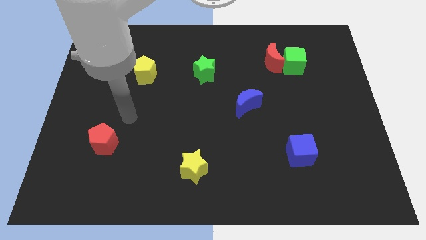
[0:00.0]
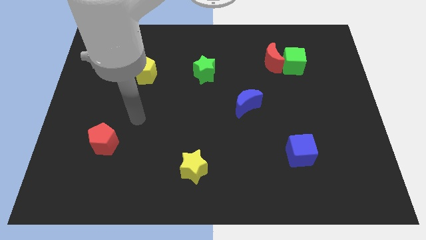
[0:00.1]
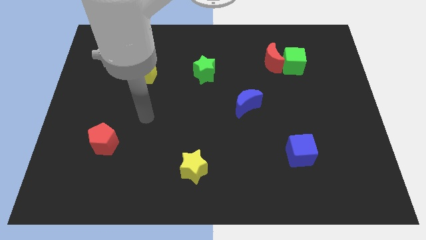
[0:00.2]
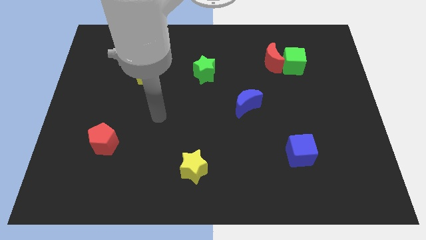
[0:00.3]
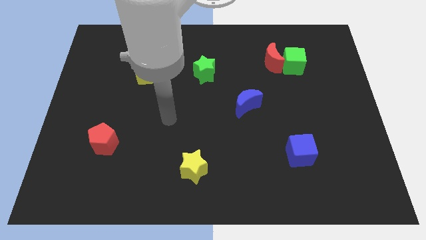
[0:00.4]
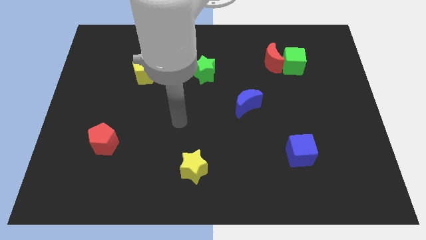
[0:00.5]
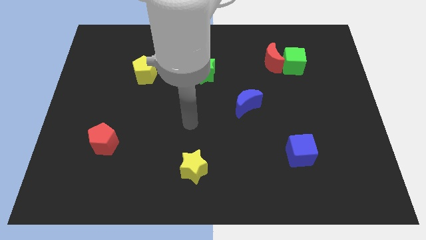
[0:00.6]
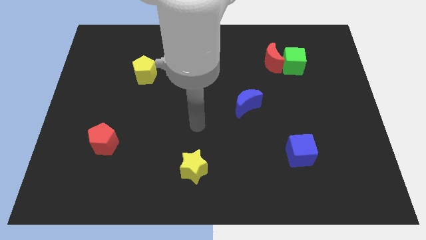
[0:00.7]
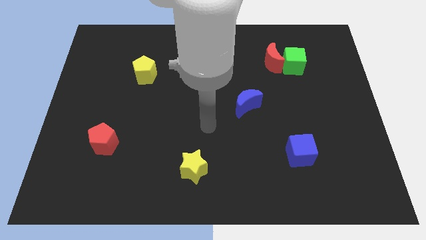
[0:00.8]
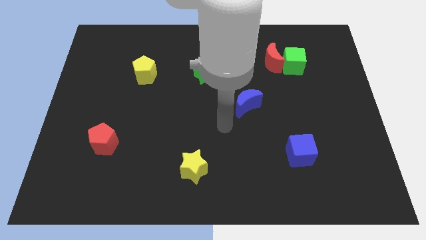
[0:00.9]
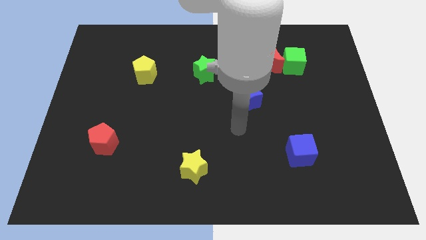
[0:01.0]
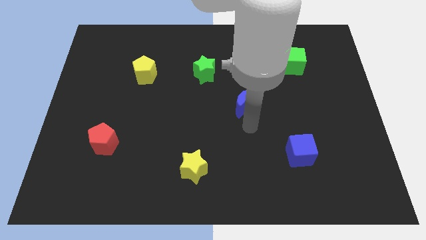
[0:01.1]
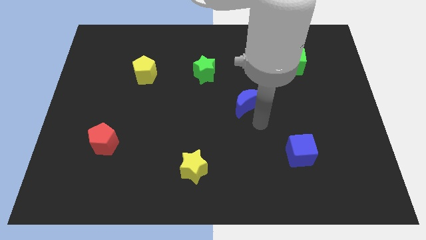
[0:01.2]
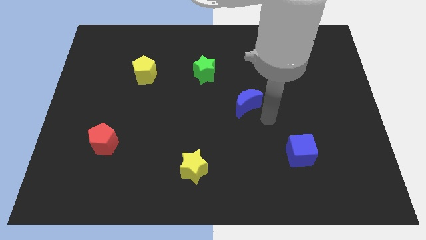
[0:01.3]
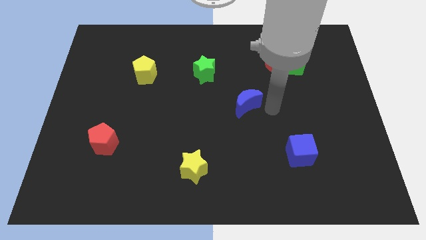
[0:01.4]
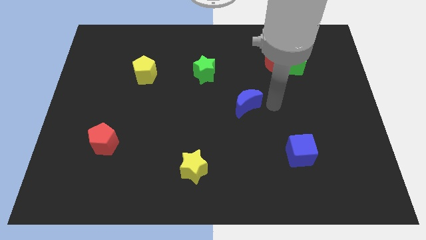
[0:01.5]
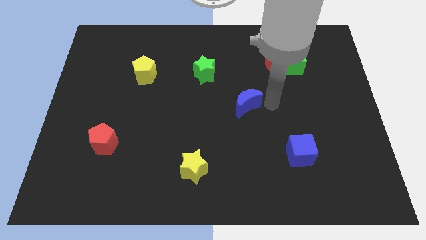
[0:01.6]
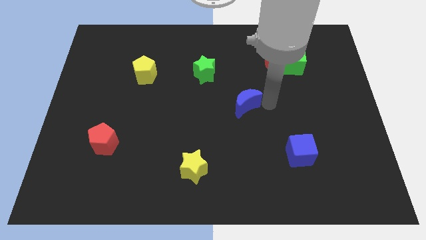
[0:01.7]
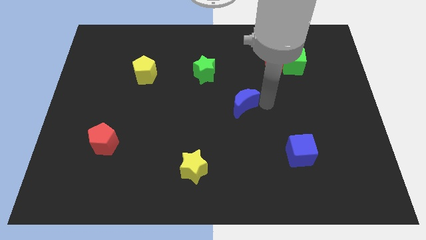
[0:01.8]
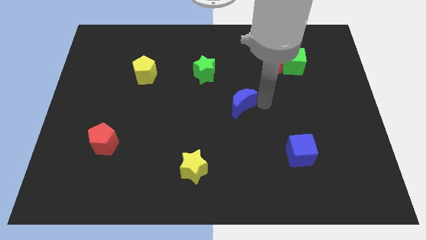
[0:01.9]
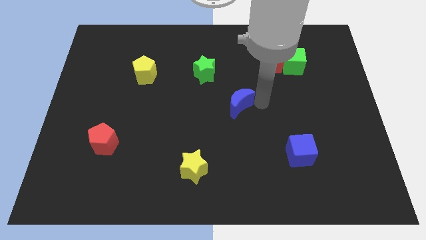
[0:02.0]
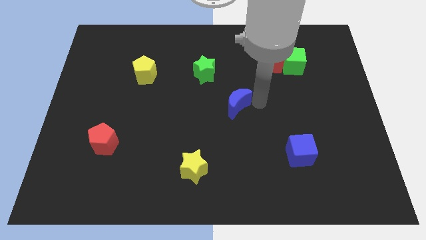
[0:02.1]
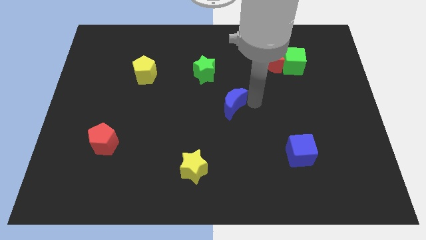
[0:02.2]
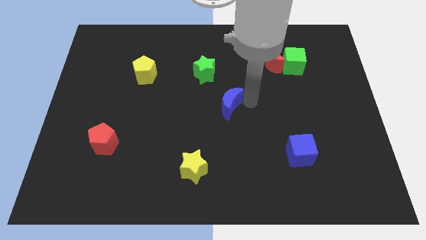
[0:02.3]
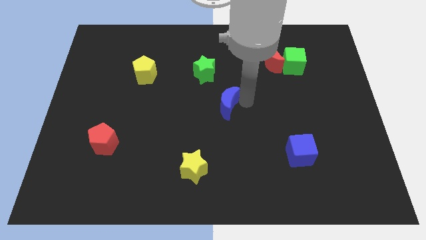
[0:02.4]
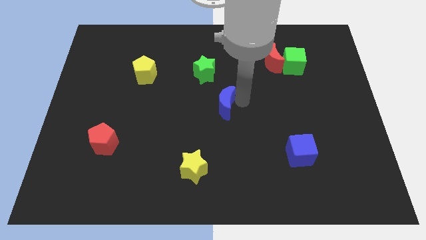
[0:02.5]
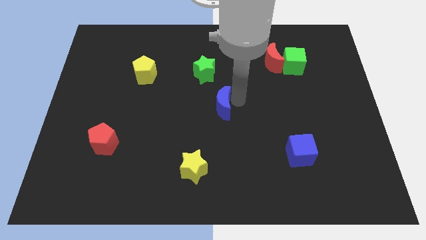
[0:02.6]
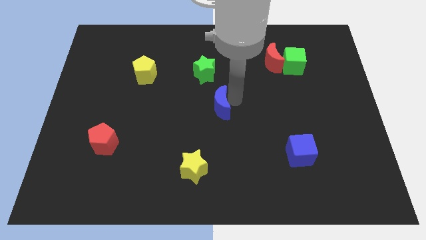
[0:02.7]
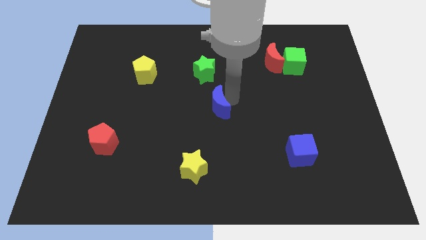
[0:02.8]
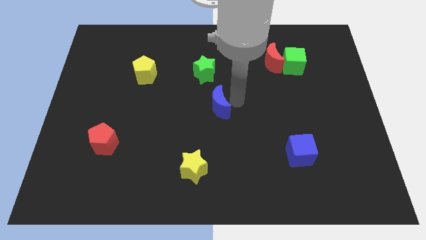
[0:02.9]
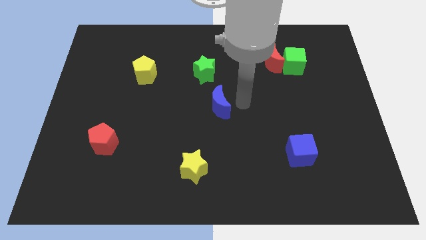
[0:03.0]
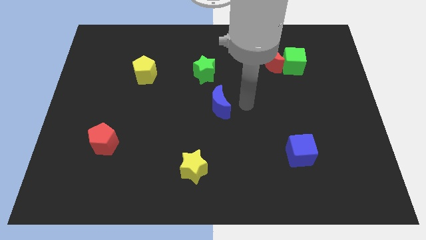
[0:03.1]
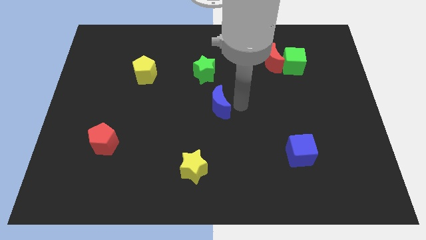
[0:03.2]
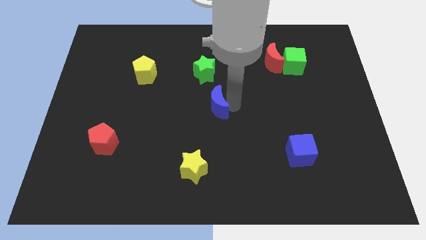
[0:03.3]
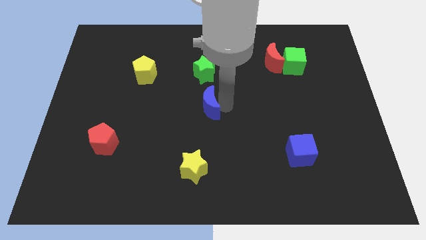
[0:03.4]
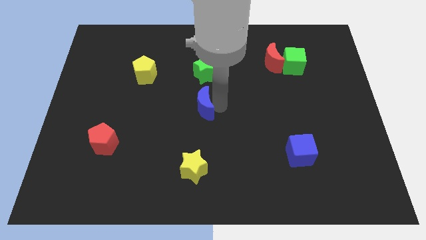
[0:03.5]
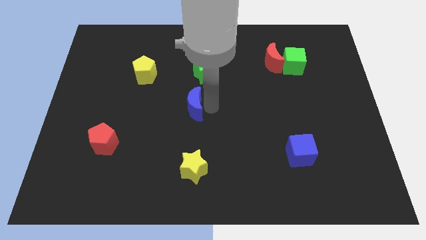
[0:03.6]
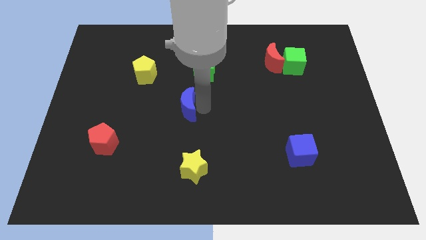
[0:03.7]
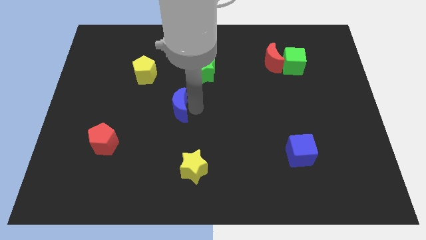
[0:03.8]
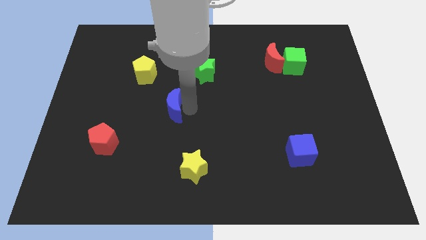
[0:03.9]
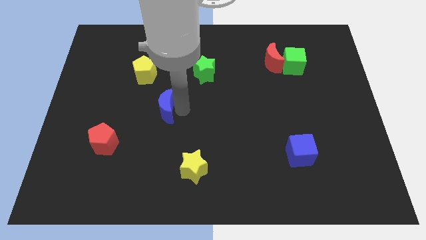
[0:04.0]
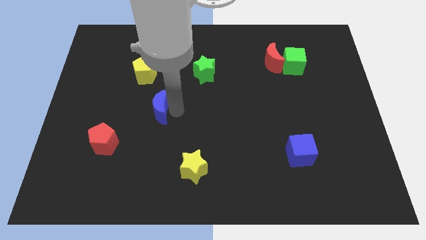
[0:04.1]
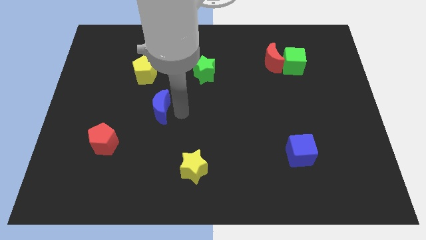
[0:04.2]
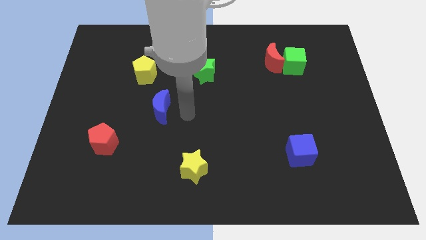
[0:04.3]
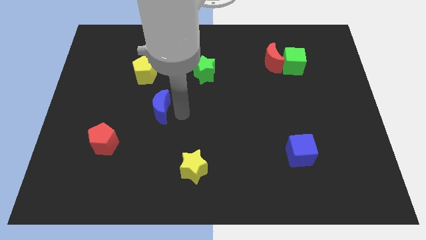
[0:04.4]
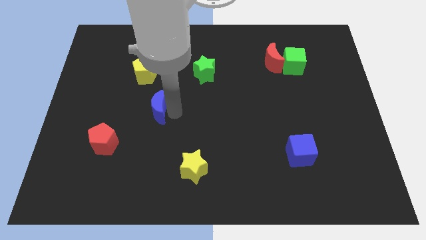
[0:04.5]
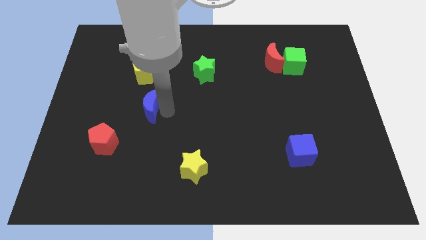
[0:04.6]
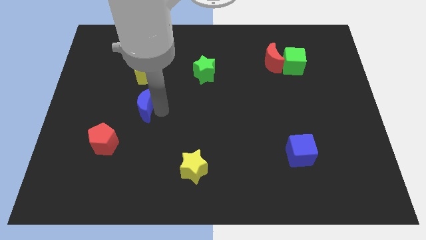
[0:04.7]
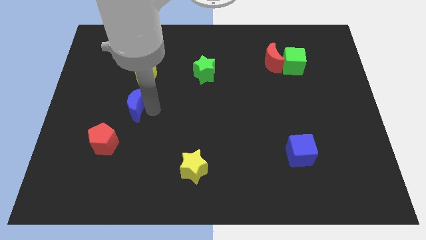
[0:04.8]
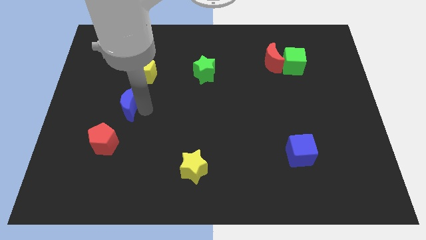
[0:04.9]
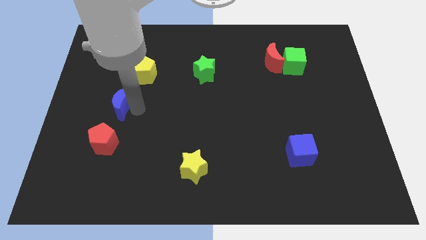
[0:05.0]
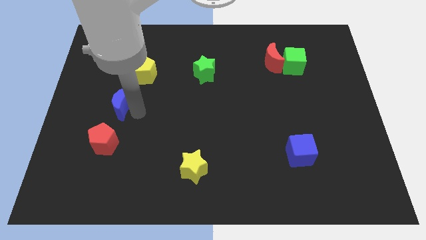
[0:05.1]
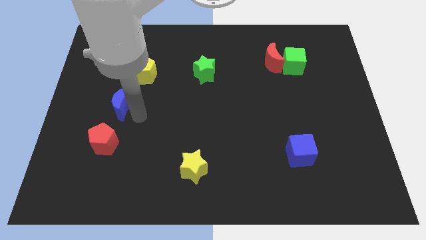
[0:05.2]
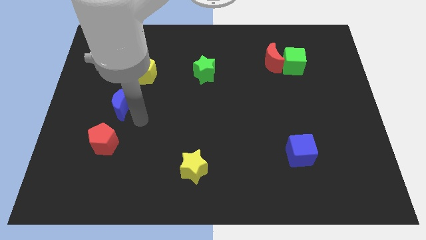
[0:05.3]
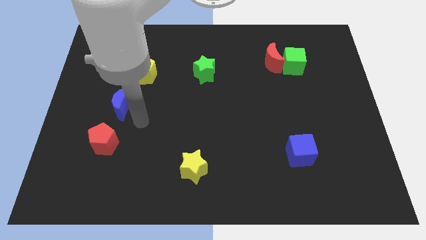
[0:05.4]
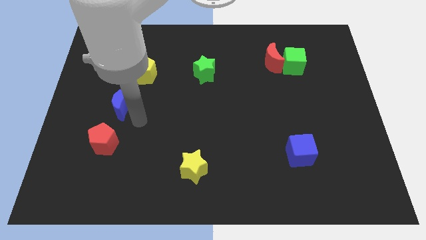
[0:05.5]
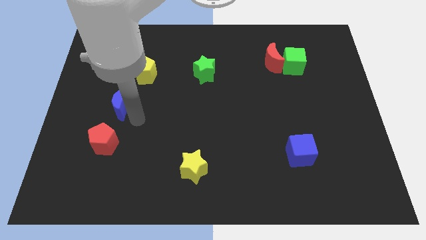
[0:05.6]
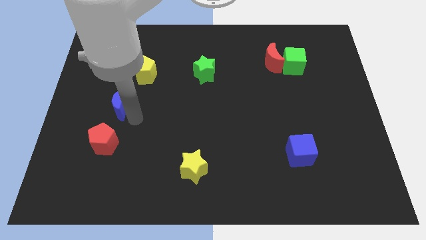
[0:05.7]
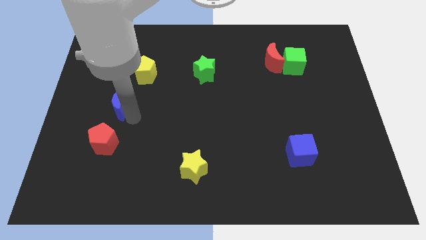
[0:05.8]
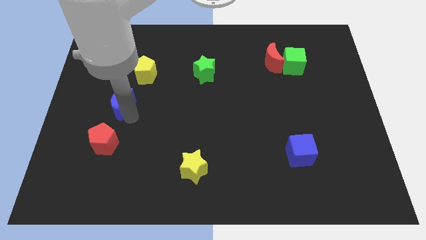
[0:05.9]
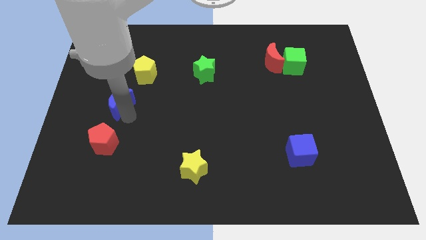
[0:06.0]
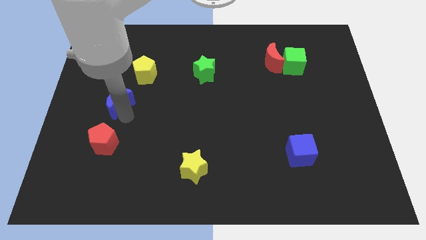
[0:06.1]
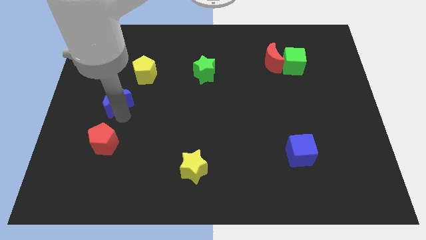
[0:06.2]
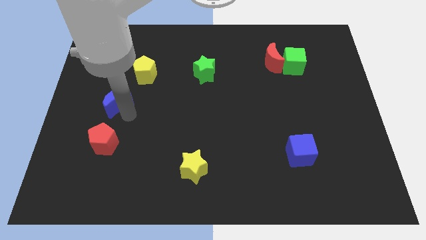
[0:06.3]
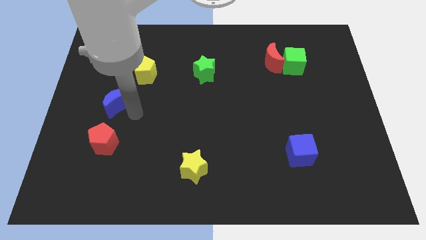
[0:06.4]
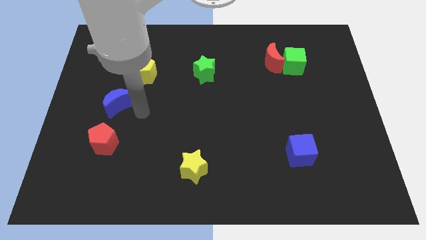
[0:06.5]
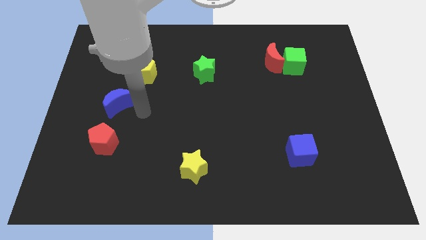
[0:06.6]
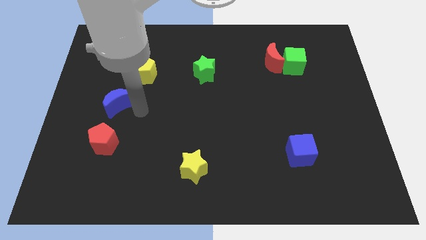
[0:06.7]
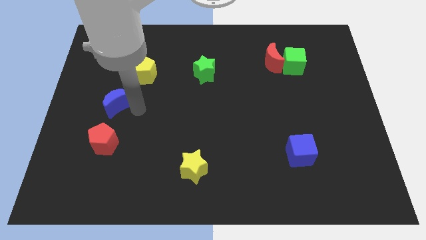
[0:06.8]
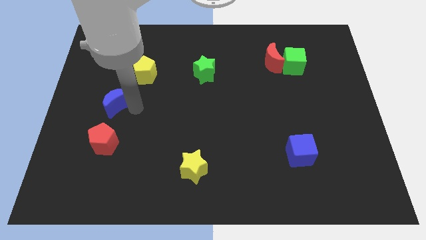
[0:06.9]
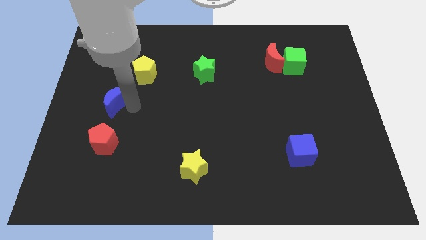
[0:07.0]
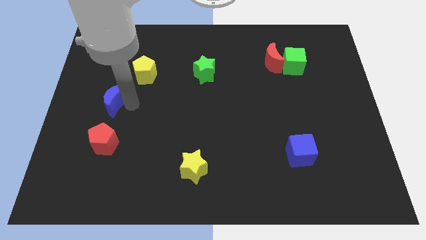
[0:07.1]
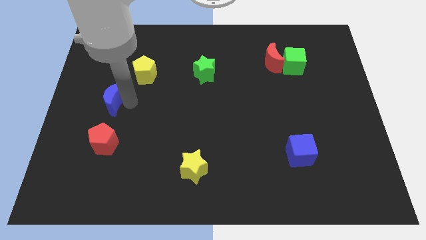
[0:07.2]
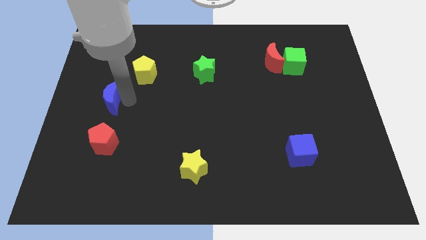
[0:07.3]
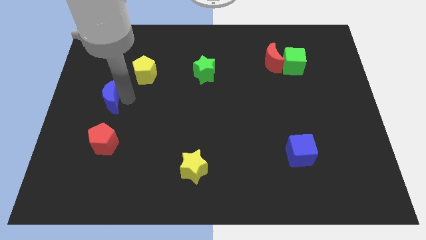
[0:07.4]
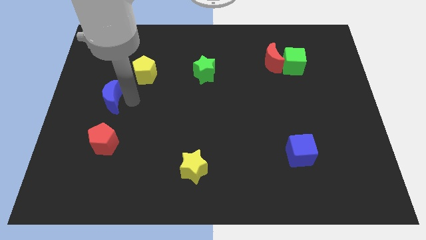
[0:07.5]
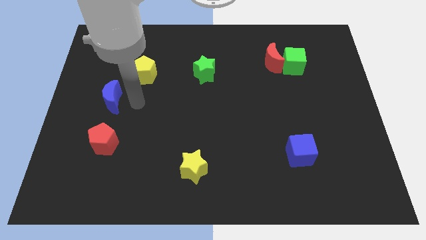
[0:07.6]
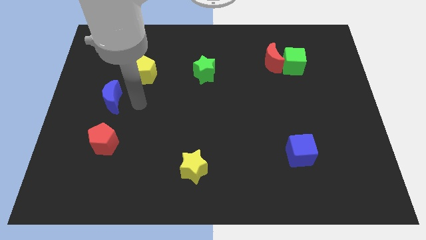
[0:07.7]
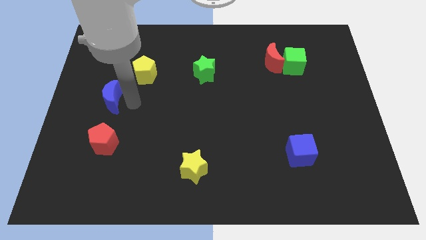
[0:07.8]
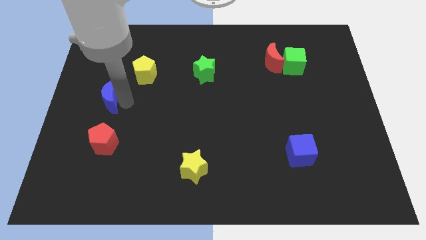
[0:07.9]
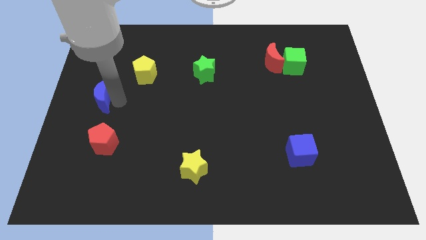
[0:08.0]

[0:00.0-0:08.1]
move the blue moon to the left side of the board
